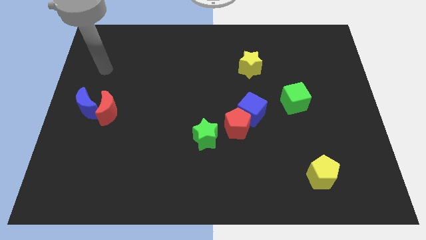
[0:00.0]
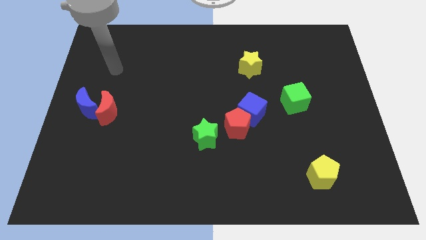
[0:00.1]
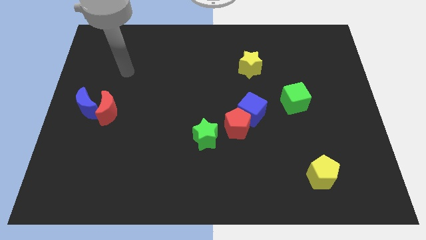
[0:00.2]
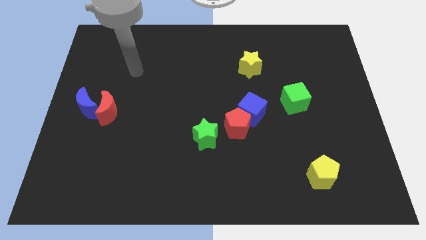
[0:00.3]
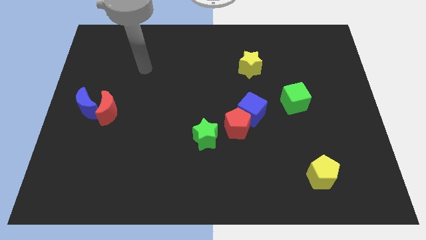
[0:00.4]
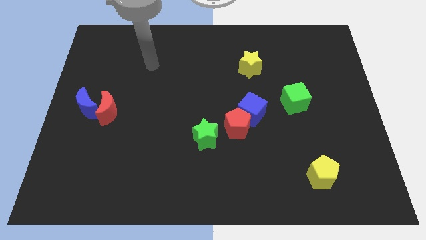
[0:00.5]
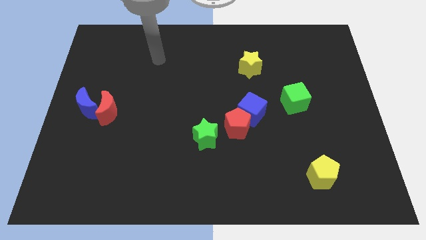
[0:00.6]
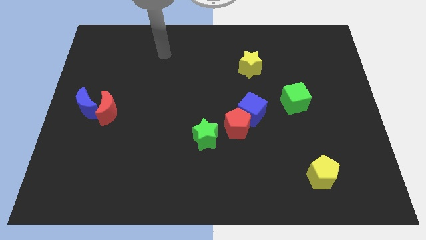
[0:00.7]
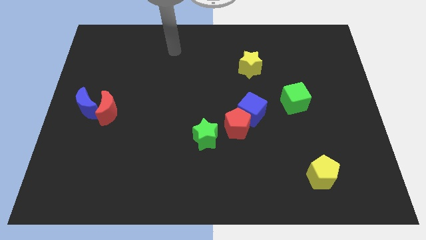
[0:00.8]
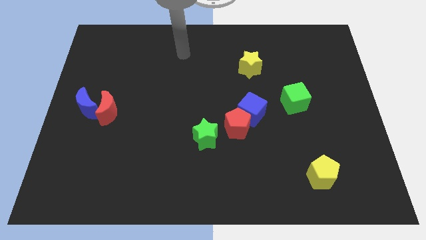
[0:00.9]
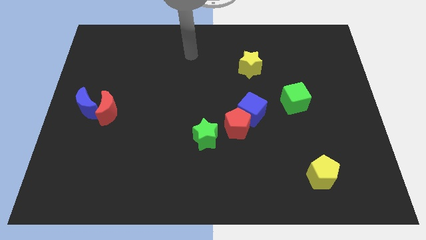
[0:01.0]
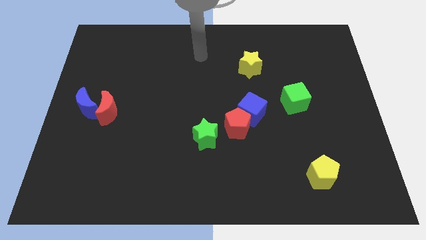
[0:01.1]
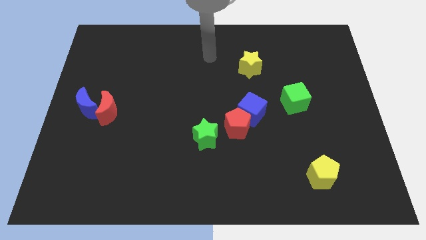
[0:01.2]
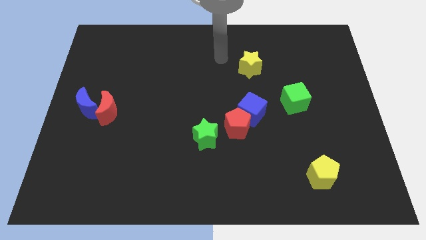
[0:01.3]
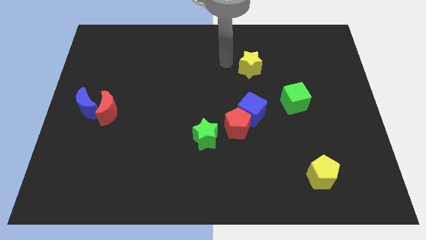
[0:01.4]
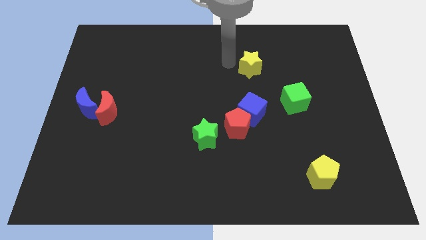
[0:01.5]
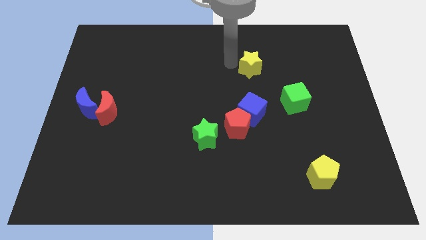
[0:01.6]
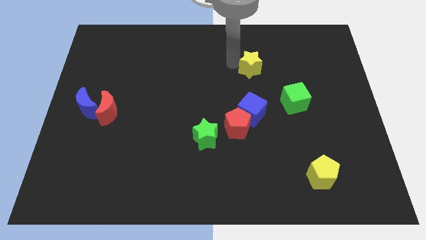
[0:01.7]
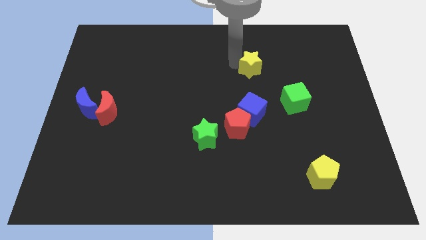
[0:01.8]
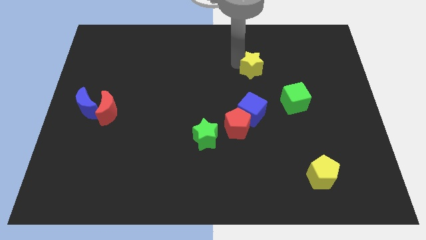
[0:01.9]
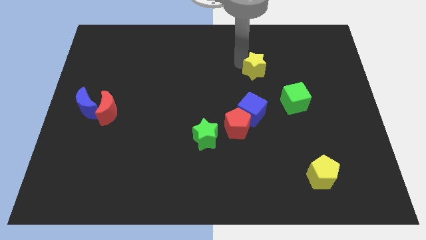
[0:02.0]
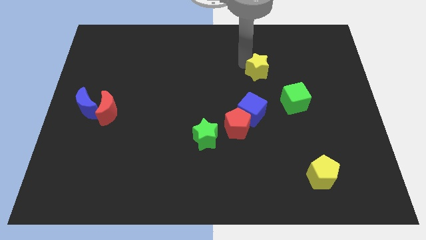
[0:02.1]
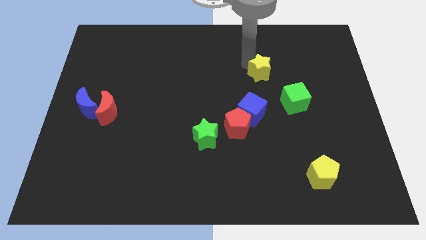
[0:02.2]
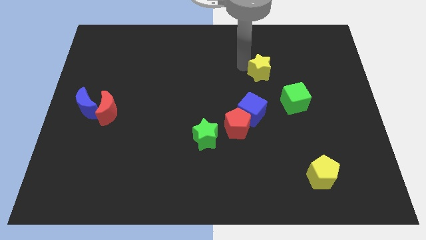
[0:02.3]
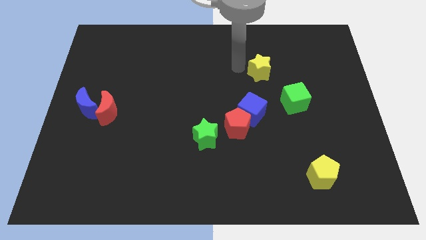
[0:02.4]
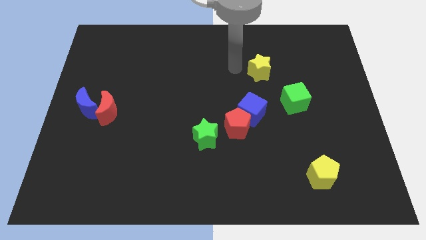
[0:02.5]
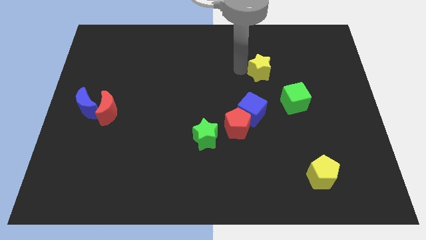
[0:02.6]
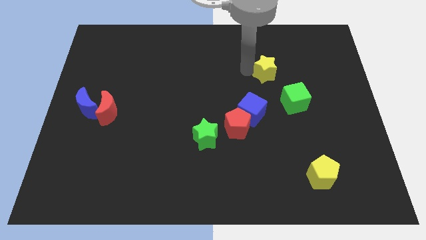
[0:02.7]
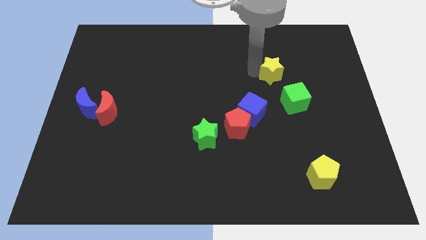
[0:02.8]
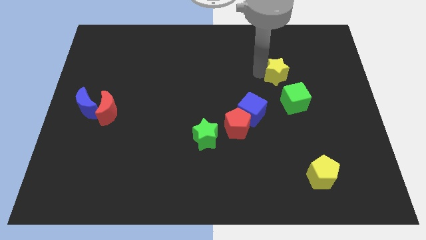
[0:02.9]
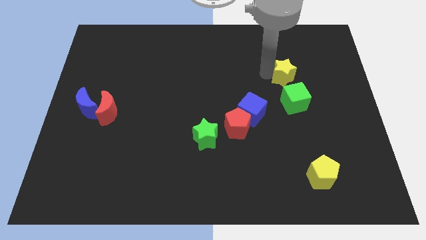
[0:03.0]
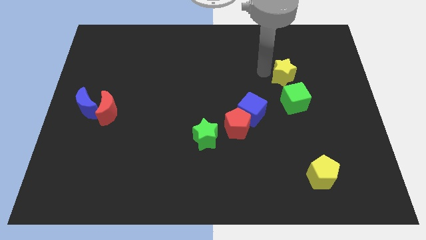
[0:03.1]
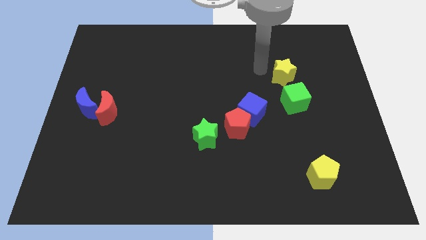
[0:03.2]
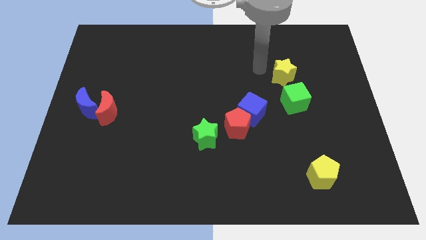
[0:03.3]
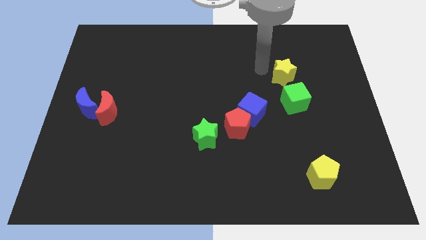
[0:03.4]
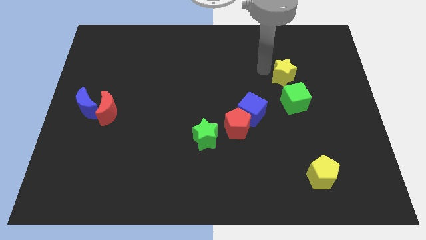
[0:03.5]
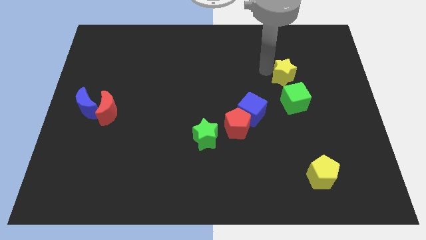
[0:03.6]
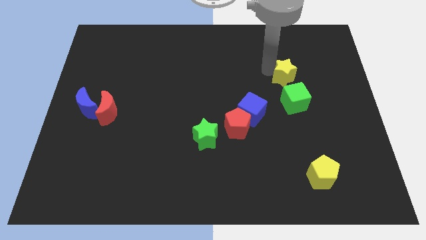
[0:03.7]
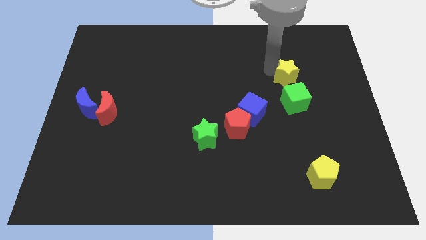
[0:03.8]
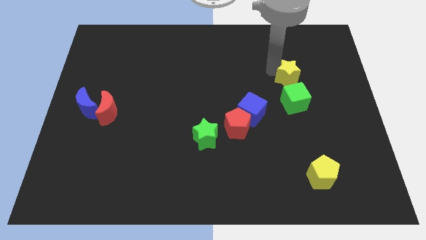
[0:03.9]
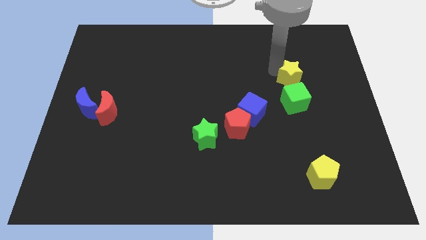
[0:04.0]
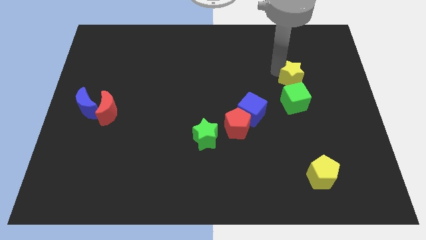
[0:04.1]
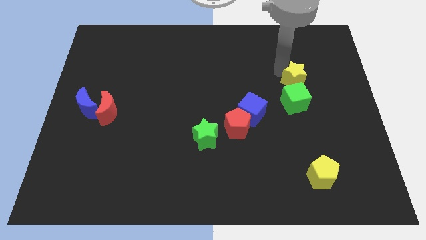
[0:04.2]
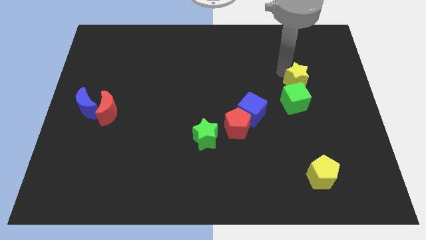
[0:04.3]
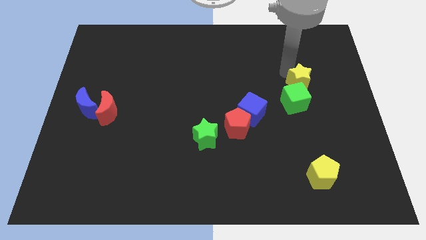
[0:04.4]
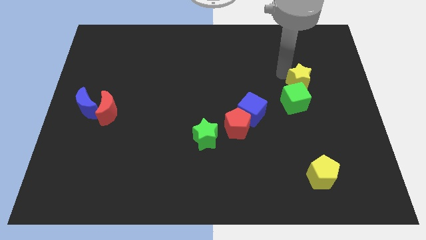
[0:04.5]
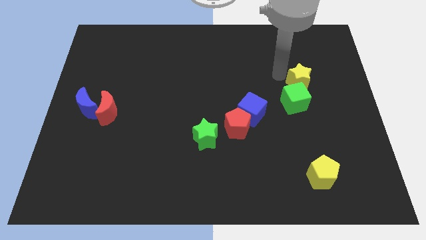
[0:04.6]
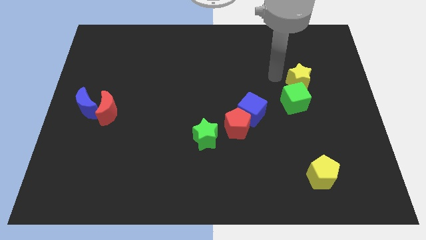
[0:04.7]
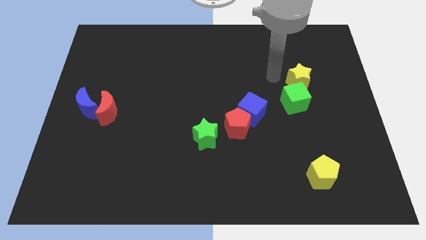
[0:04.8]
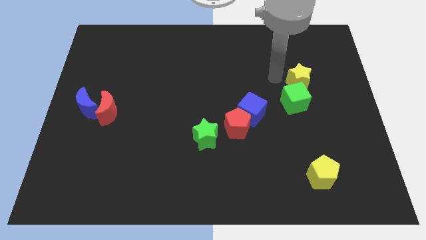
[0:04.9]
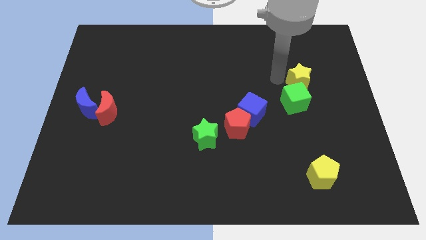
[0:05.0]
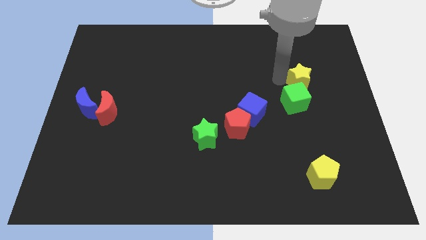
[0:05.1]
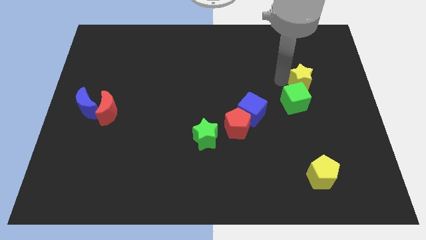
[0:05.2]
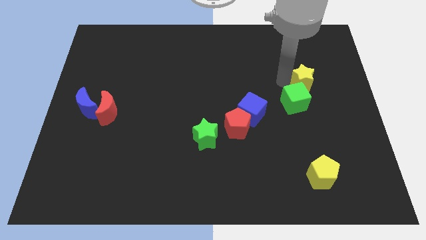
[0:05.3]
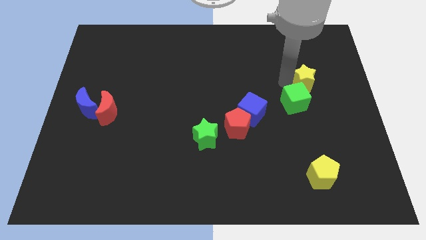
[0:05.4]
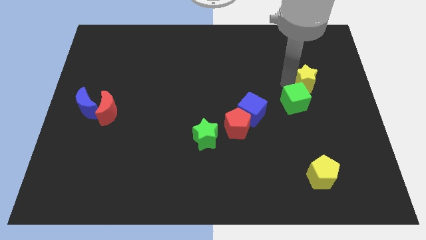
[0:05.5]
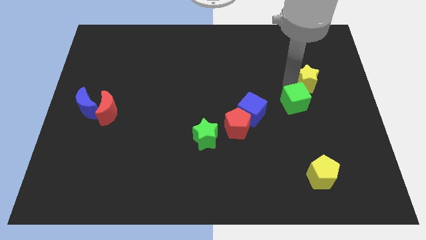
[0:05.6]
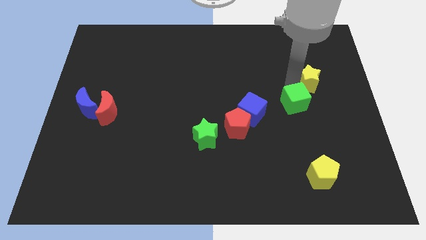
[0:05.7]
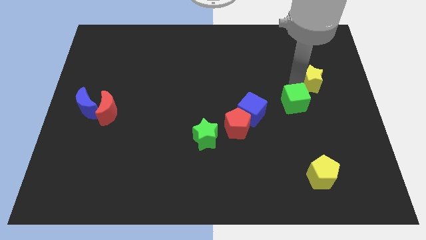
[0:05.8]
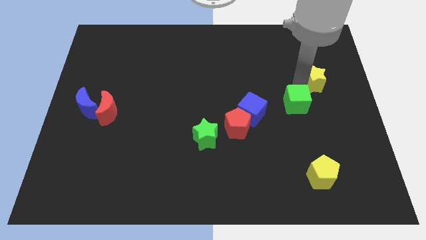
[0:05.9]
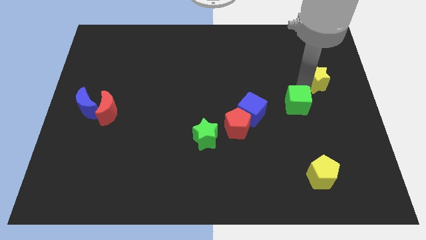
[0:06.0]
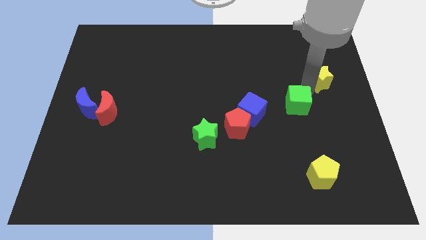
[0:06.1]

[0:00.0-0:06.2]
slide the yellow star to the center right

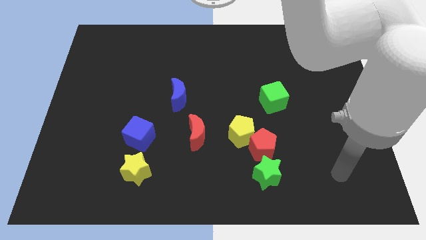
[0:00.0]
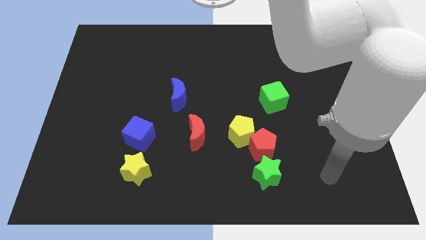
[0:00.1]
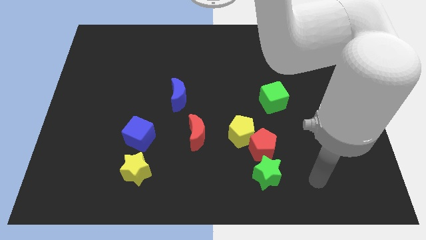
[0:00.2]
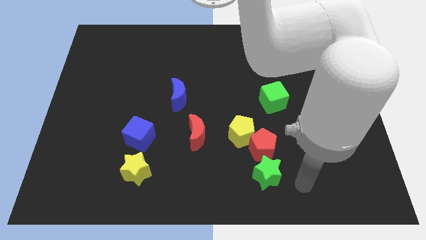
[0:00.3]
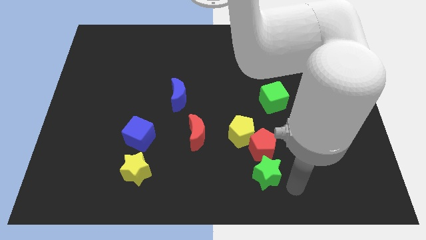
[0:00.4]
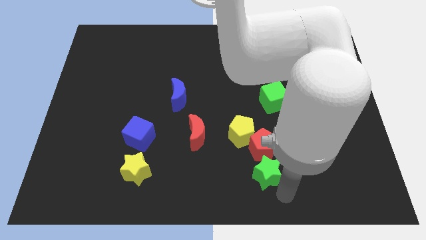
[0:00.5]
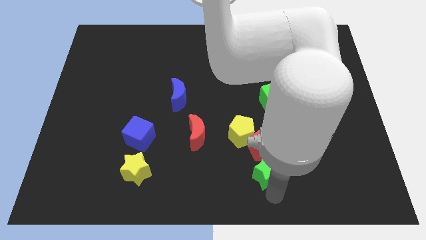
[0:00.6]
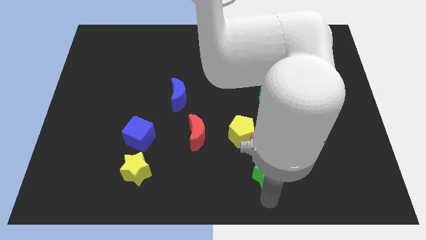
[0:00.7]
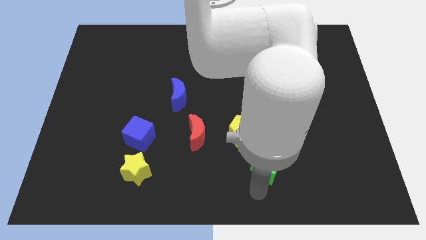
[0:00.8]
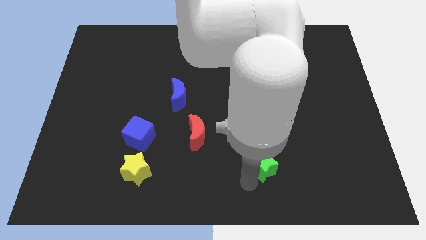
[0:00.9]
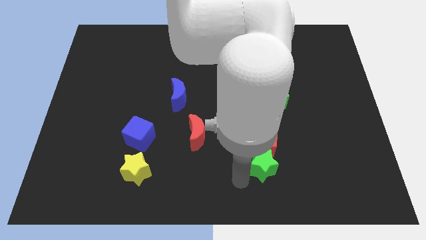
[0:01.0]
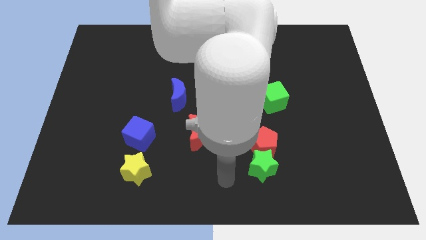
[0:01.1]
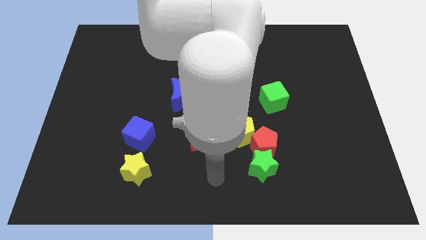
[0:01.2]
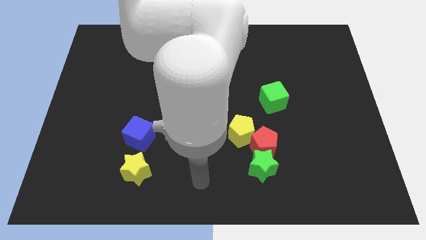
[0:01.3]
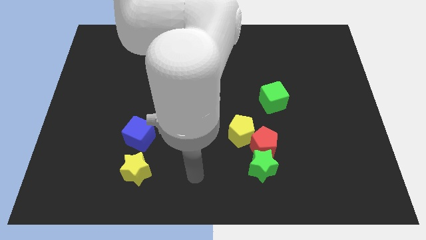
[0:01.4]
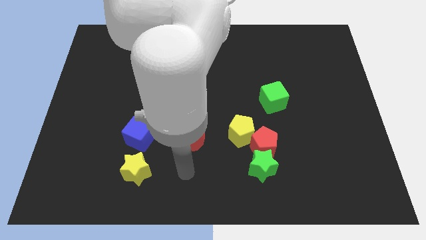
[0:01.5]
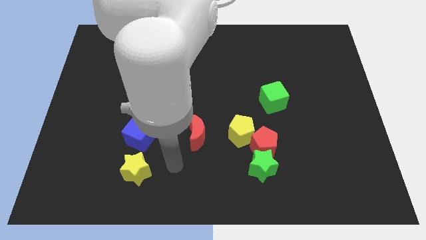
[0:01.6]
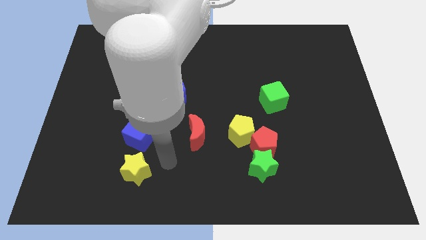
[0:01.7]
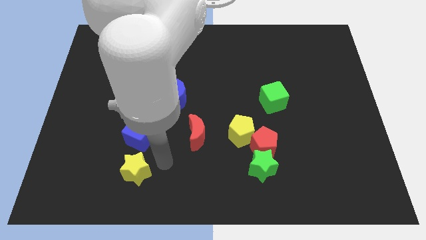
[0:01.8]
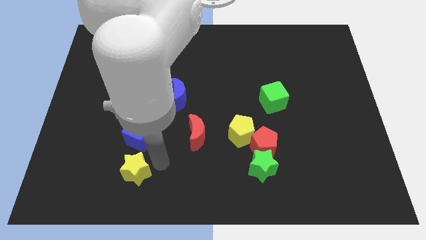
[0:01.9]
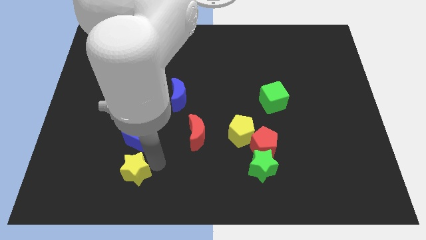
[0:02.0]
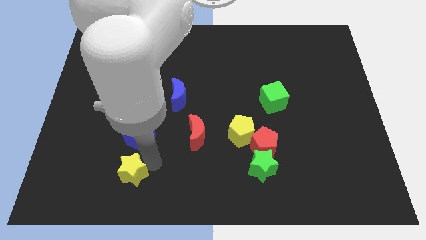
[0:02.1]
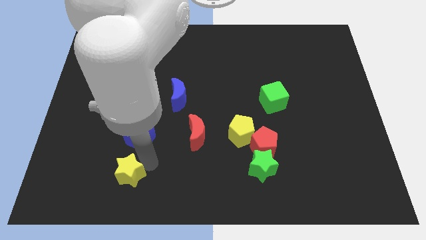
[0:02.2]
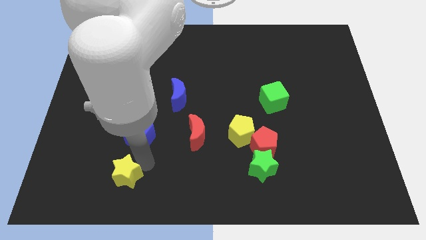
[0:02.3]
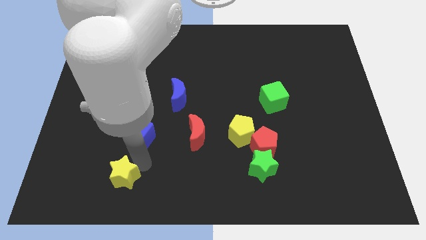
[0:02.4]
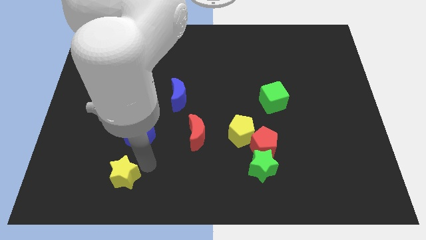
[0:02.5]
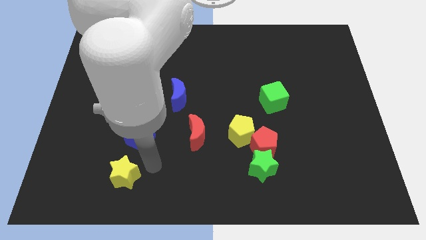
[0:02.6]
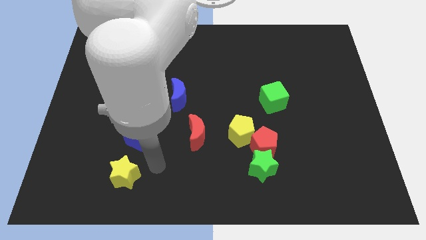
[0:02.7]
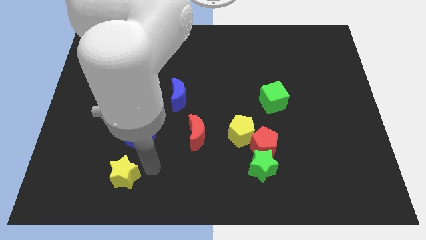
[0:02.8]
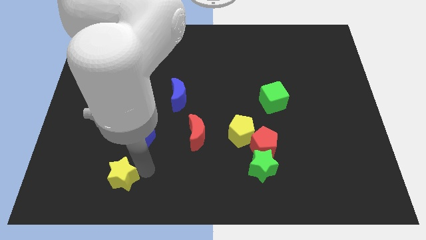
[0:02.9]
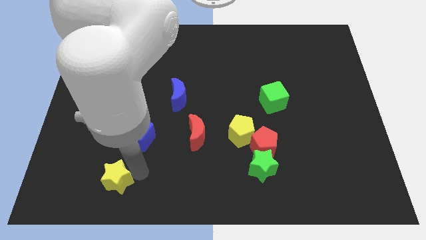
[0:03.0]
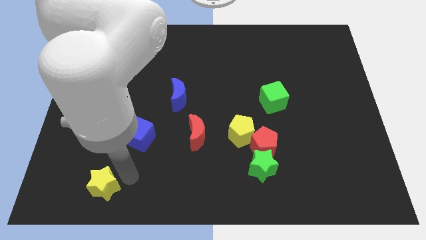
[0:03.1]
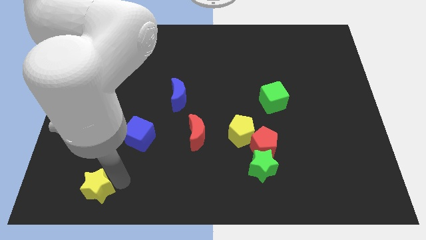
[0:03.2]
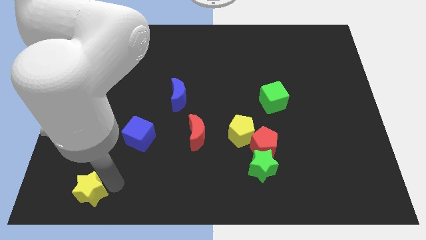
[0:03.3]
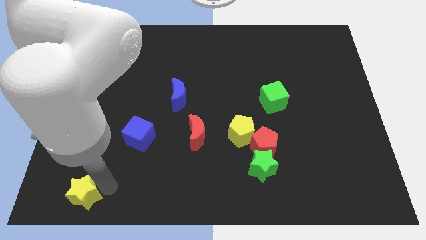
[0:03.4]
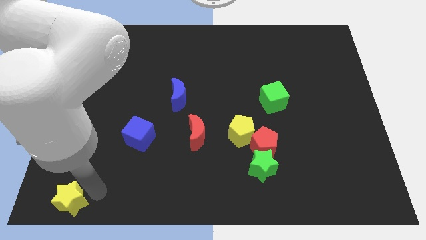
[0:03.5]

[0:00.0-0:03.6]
move the yellow star to the bottom left of the board
